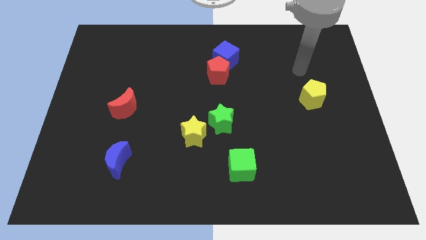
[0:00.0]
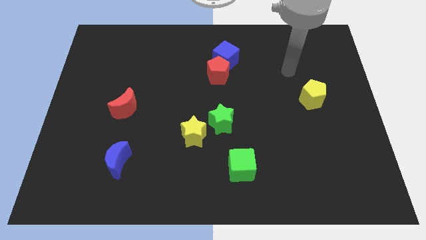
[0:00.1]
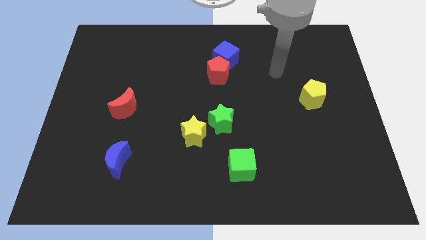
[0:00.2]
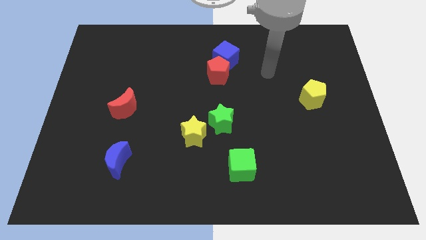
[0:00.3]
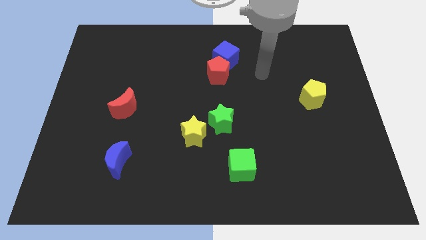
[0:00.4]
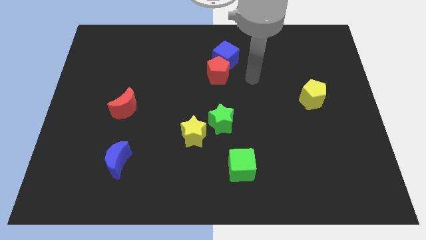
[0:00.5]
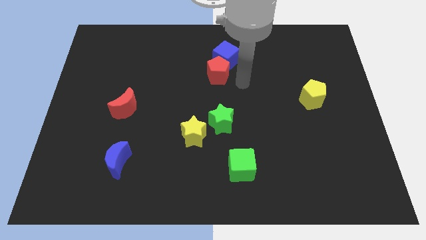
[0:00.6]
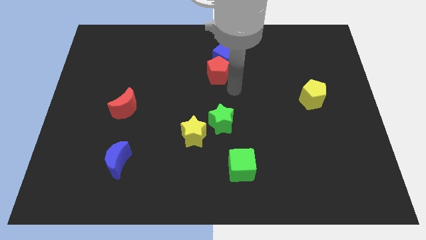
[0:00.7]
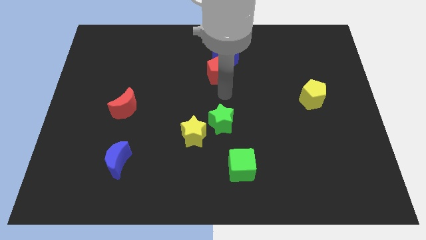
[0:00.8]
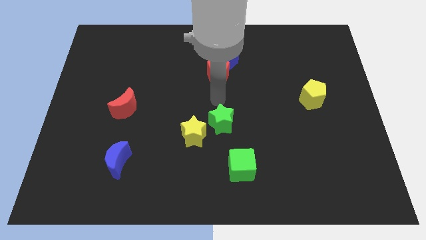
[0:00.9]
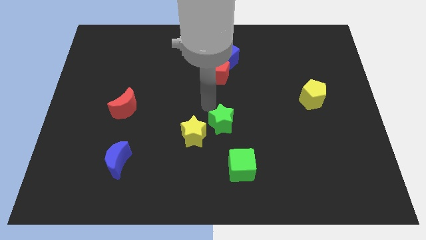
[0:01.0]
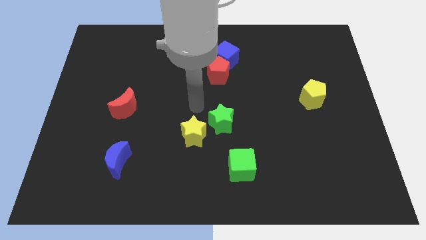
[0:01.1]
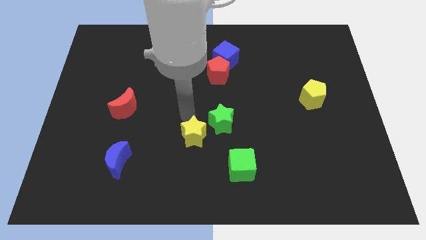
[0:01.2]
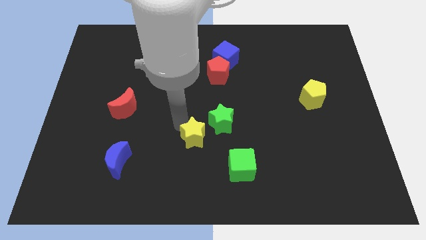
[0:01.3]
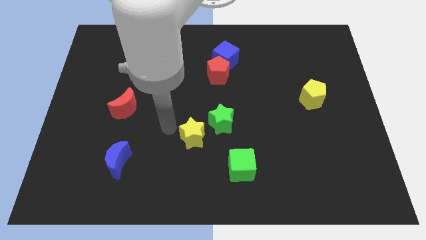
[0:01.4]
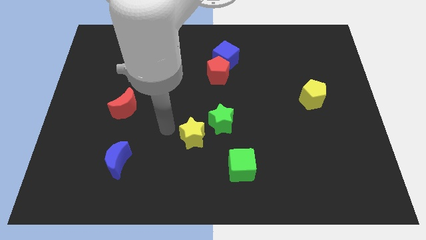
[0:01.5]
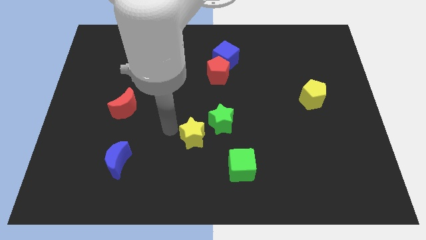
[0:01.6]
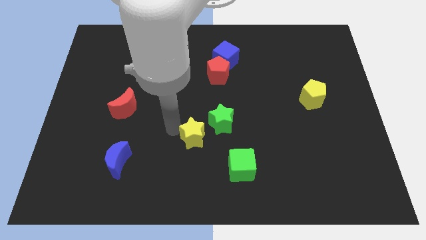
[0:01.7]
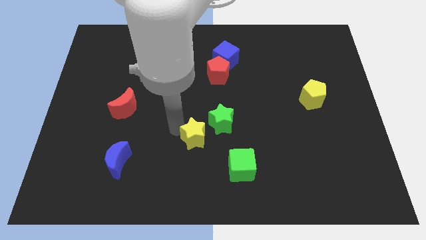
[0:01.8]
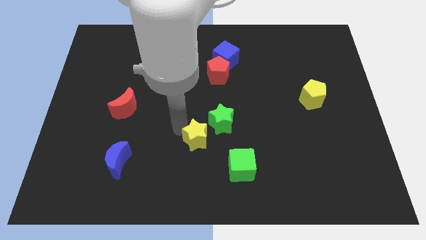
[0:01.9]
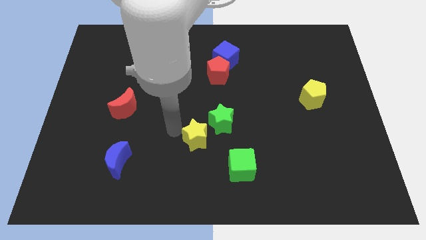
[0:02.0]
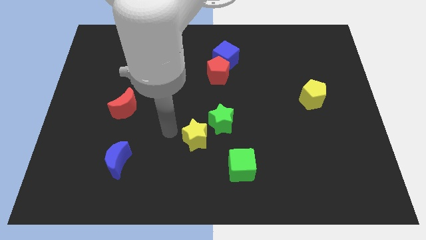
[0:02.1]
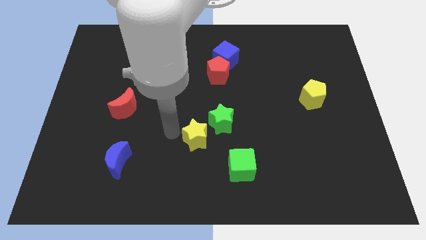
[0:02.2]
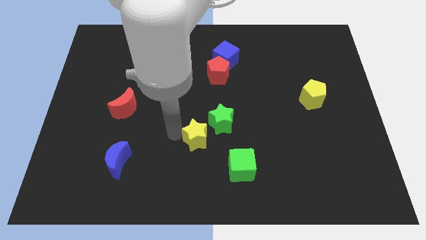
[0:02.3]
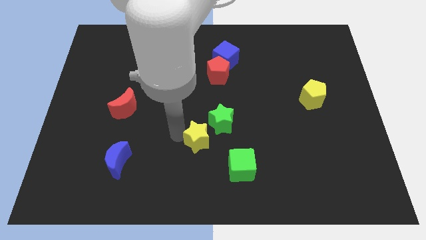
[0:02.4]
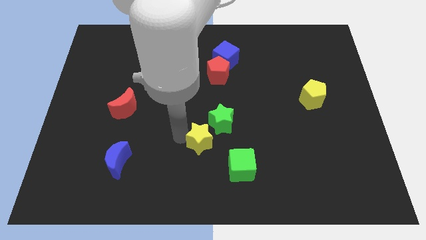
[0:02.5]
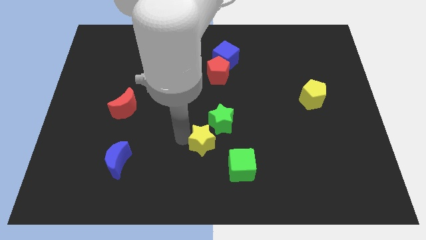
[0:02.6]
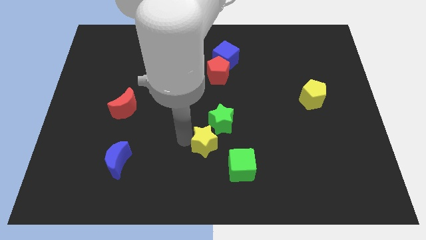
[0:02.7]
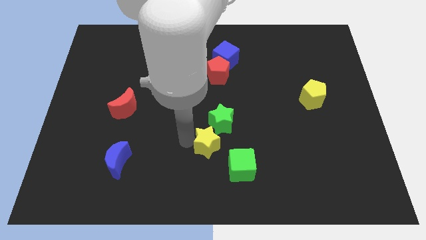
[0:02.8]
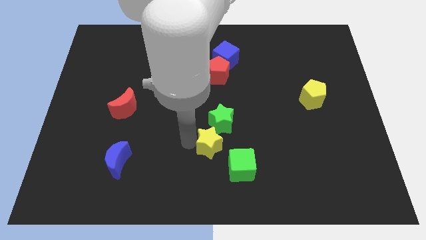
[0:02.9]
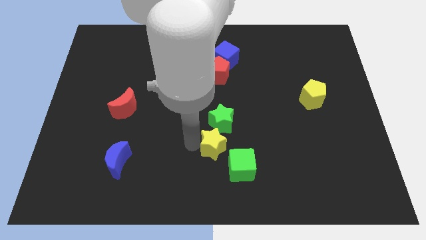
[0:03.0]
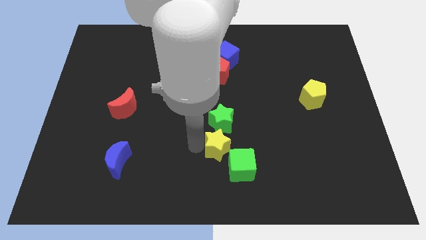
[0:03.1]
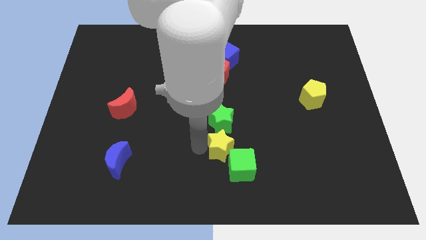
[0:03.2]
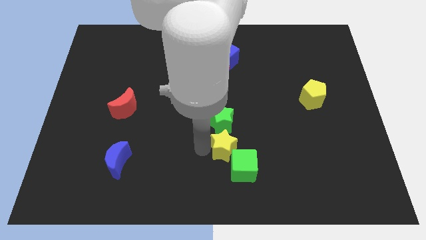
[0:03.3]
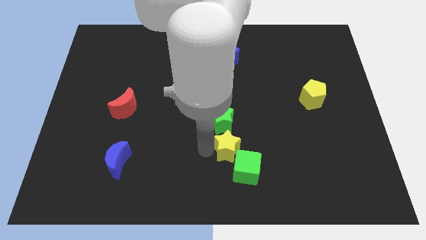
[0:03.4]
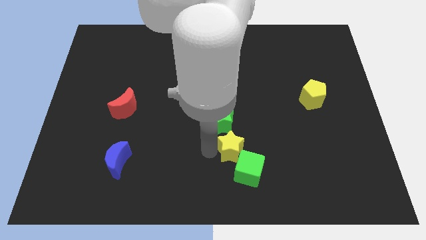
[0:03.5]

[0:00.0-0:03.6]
slide the yellow star right a little

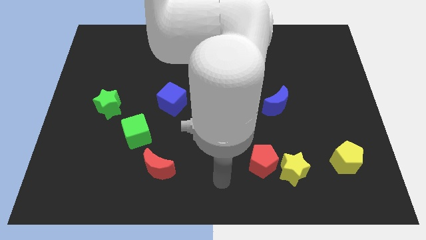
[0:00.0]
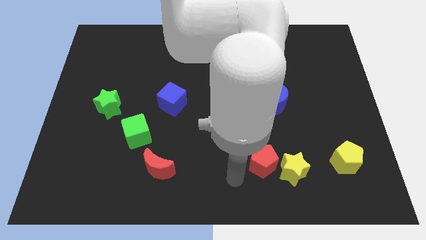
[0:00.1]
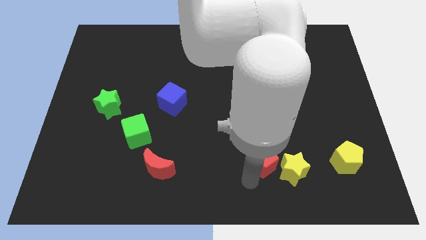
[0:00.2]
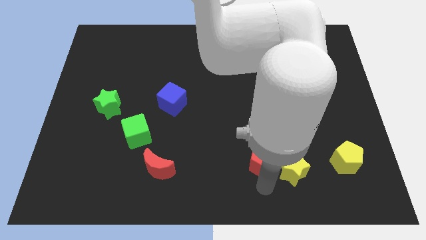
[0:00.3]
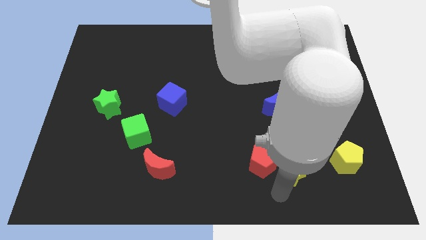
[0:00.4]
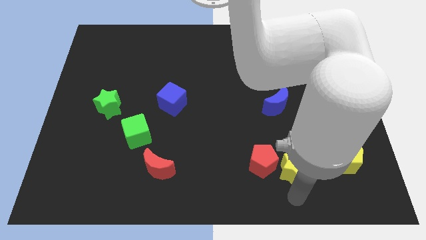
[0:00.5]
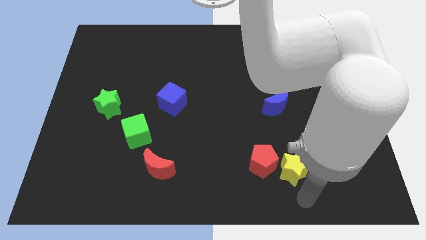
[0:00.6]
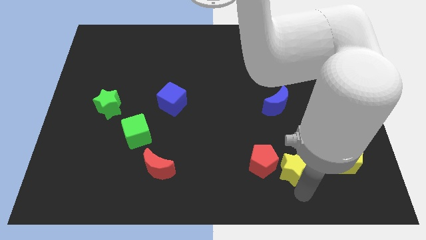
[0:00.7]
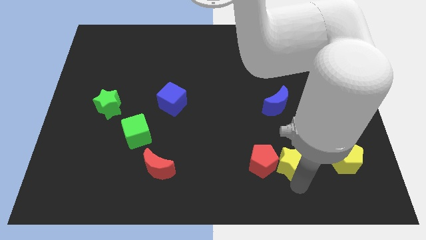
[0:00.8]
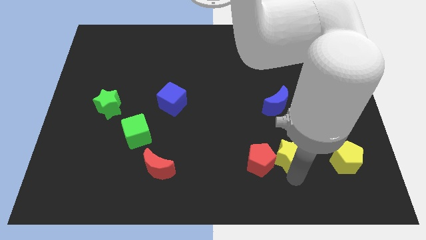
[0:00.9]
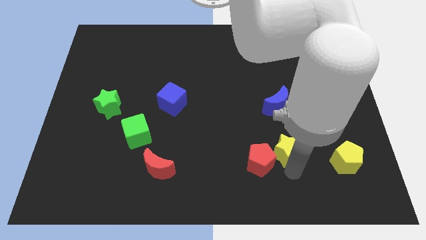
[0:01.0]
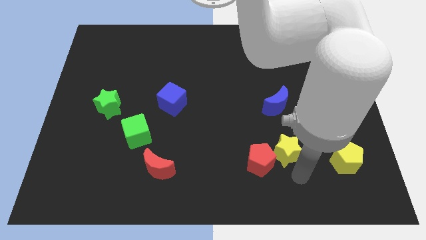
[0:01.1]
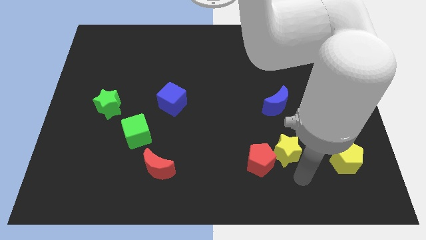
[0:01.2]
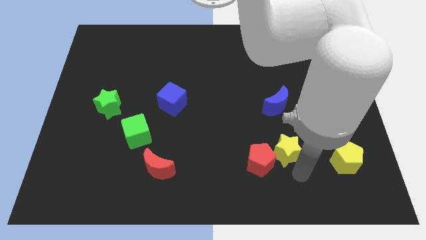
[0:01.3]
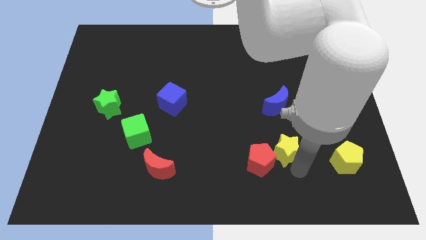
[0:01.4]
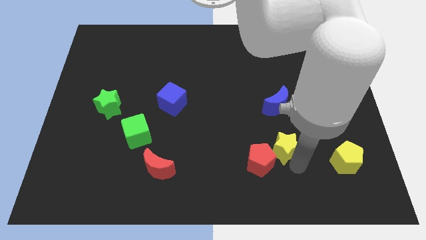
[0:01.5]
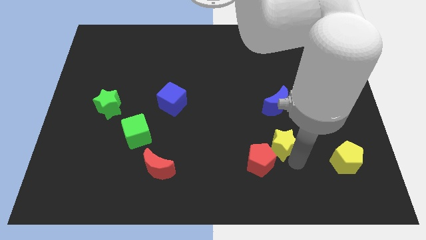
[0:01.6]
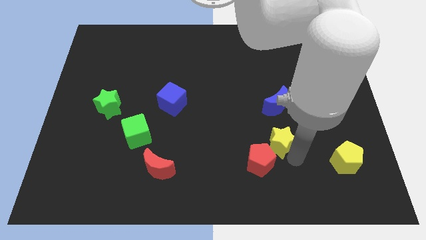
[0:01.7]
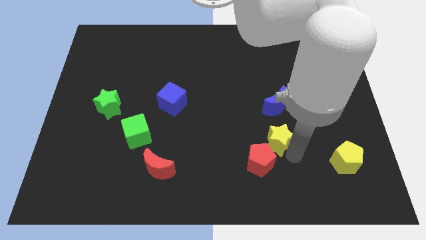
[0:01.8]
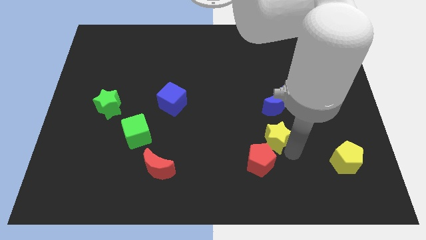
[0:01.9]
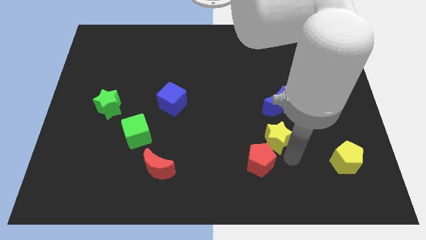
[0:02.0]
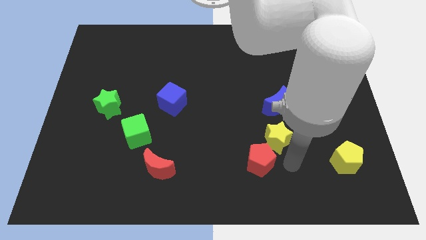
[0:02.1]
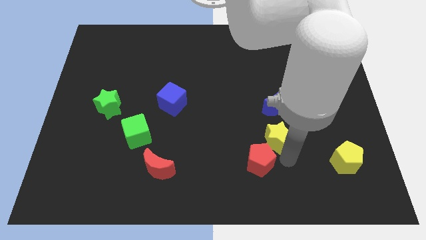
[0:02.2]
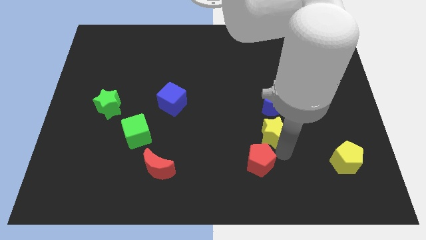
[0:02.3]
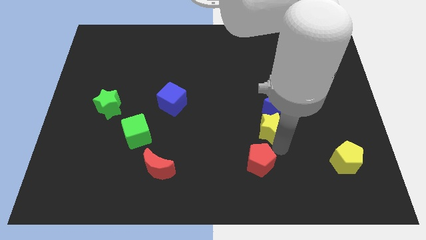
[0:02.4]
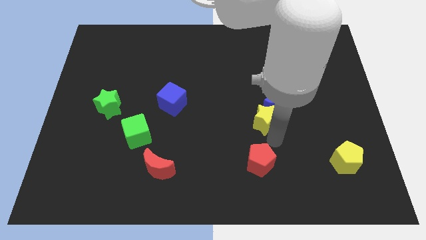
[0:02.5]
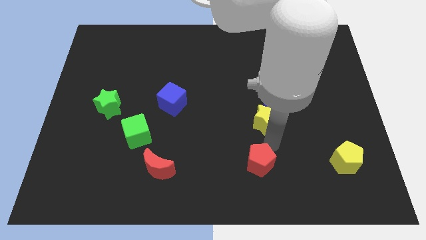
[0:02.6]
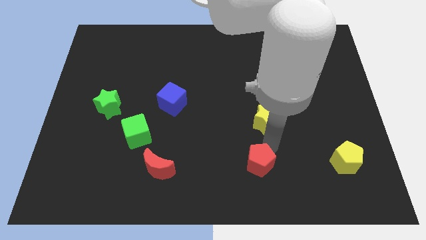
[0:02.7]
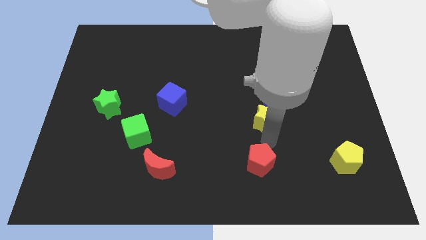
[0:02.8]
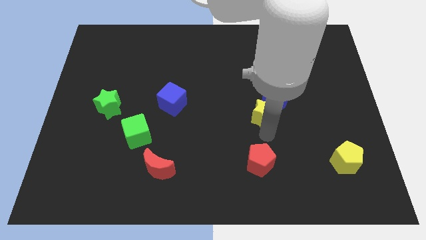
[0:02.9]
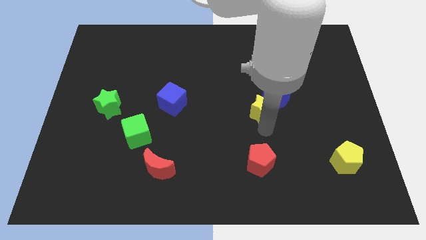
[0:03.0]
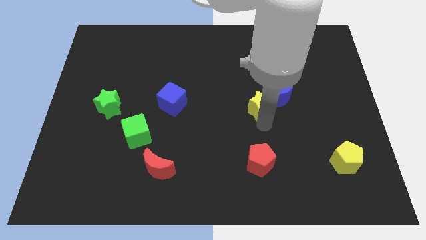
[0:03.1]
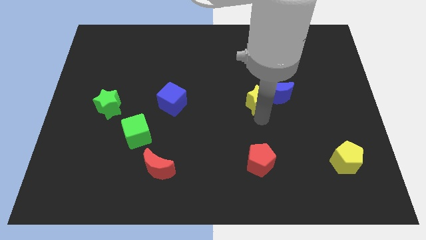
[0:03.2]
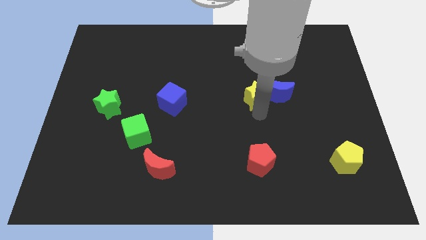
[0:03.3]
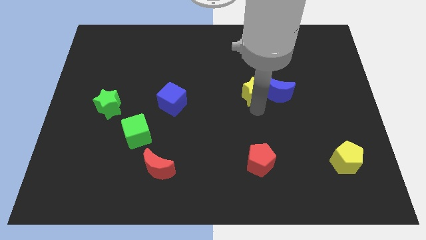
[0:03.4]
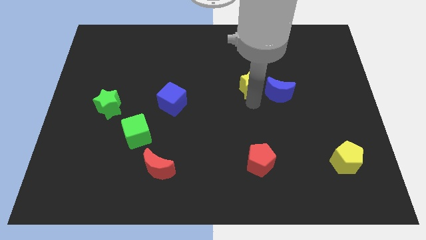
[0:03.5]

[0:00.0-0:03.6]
move the yellow star upwards

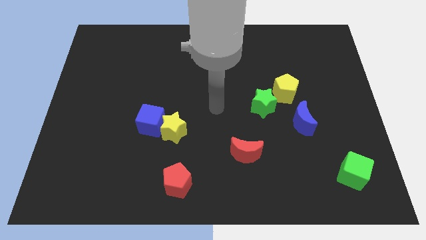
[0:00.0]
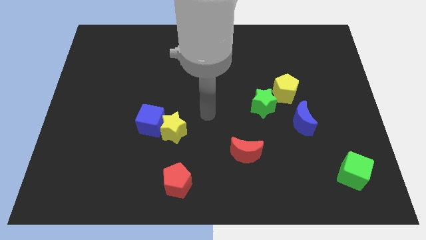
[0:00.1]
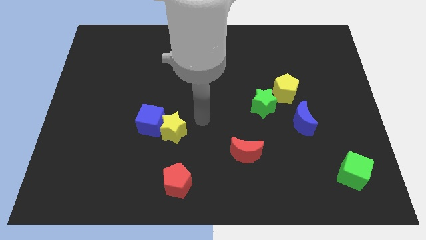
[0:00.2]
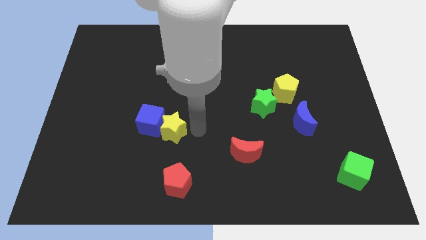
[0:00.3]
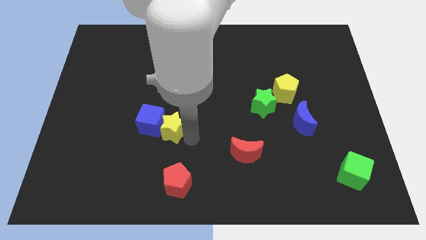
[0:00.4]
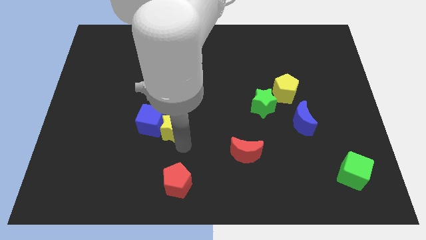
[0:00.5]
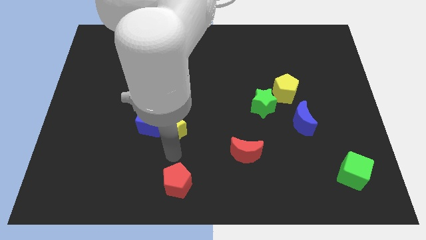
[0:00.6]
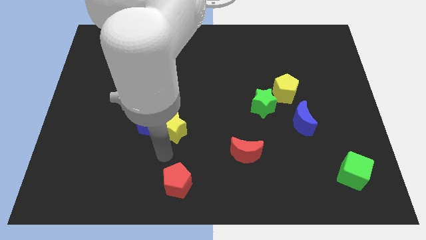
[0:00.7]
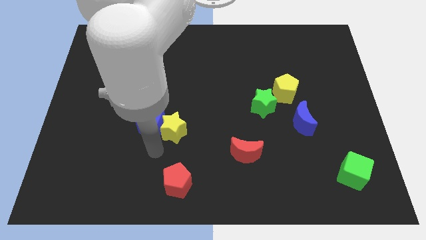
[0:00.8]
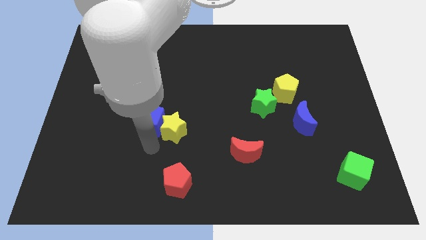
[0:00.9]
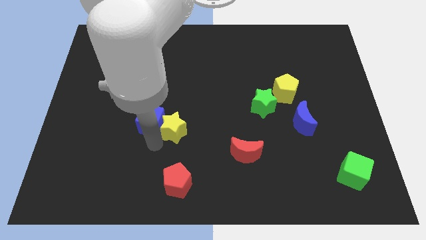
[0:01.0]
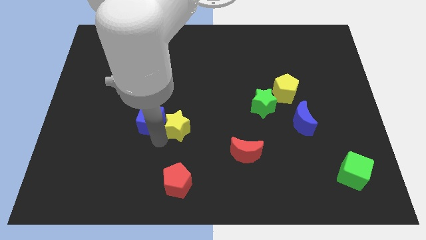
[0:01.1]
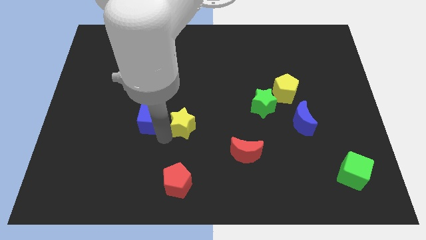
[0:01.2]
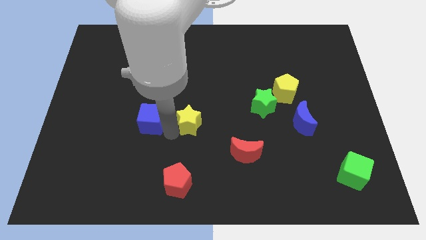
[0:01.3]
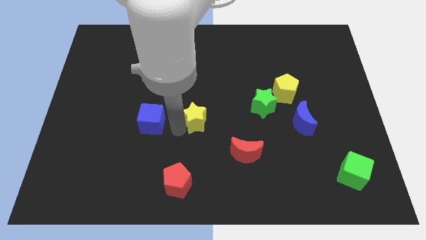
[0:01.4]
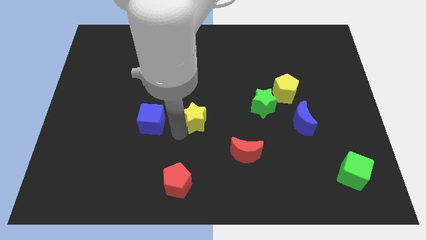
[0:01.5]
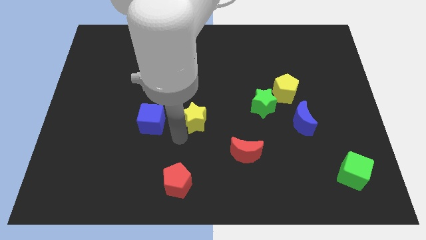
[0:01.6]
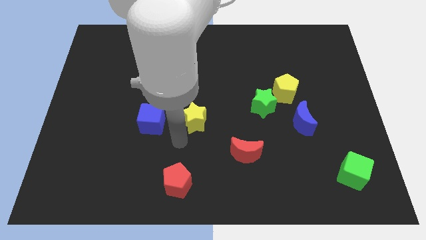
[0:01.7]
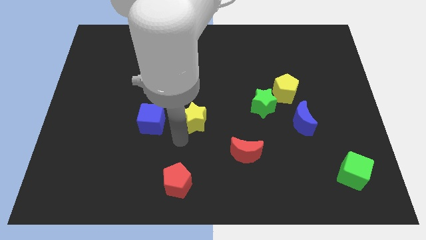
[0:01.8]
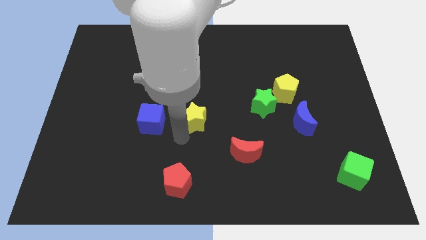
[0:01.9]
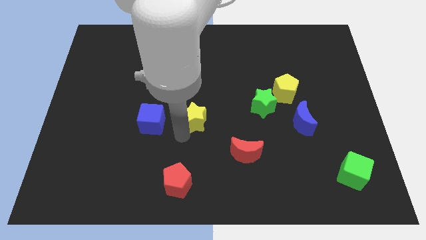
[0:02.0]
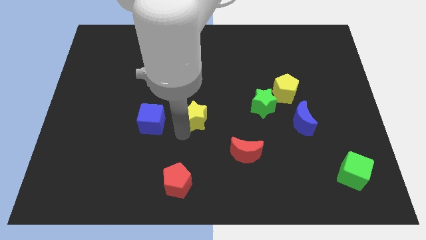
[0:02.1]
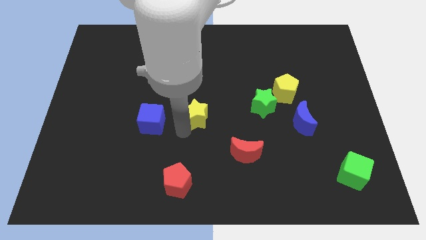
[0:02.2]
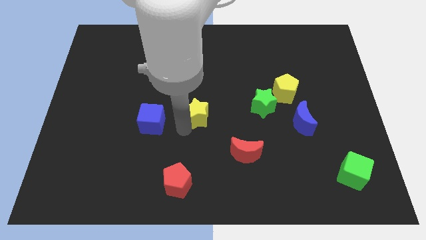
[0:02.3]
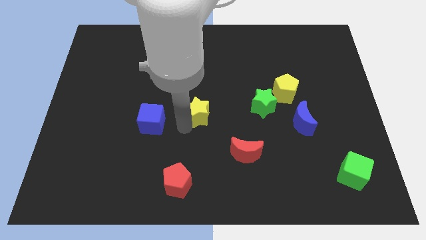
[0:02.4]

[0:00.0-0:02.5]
slide the yellow star diagonally up and right a bit
